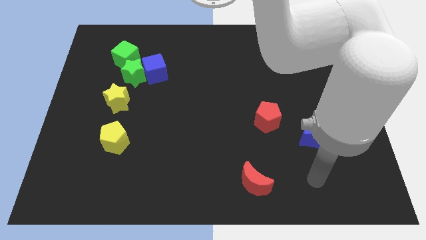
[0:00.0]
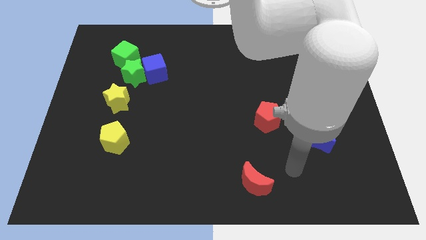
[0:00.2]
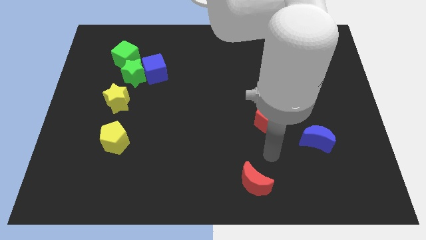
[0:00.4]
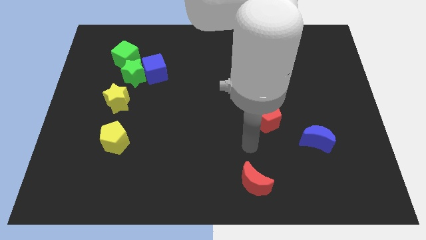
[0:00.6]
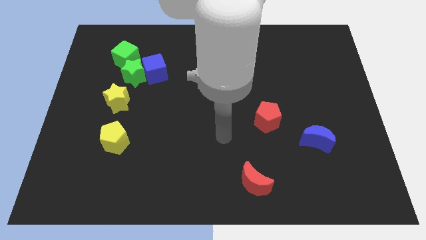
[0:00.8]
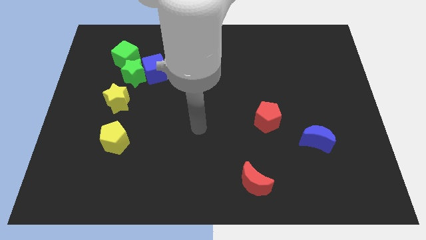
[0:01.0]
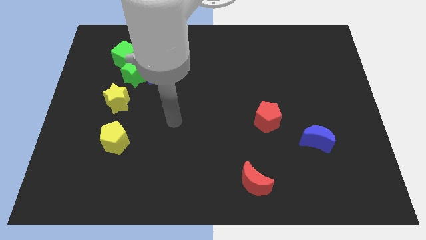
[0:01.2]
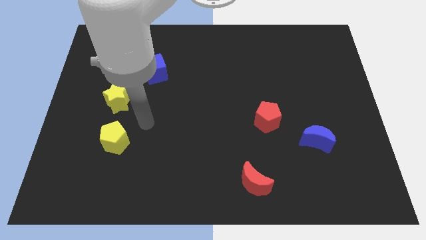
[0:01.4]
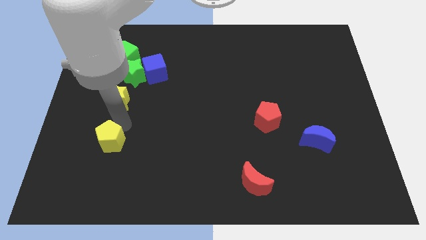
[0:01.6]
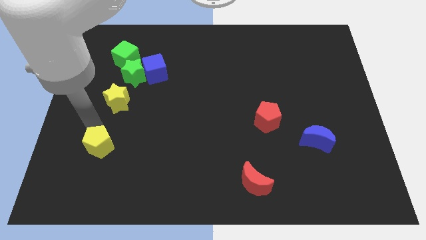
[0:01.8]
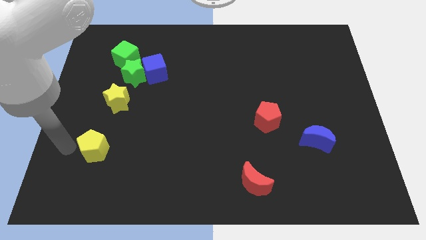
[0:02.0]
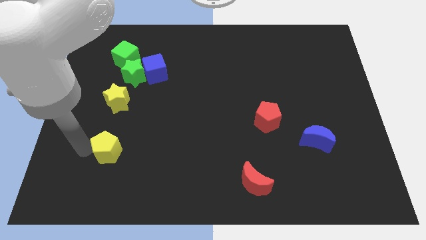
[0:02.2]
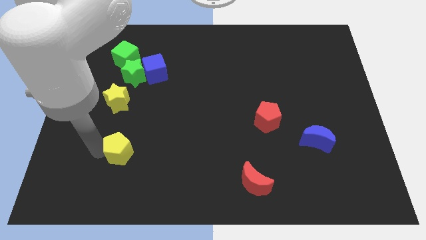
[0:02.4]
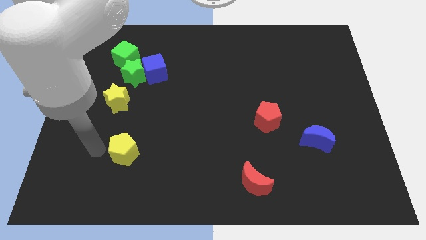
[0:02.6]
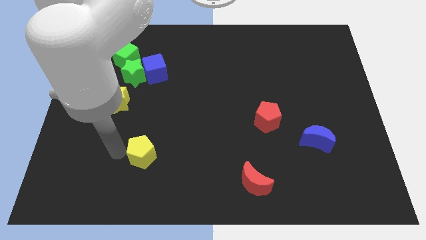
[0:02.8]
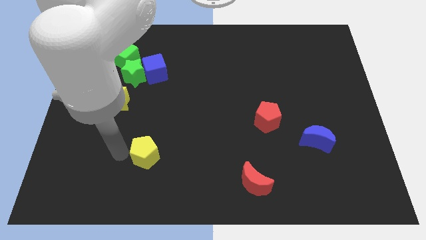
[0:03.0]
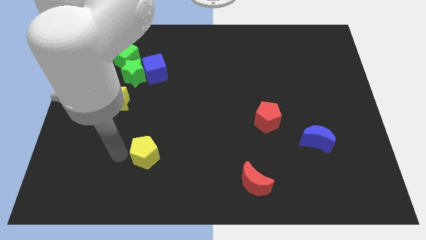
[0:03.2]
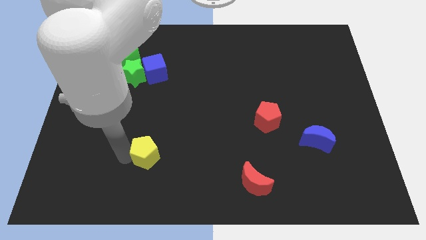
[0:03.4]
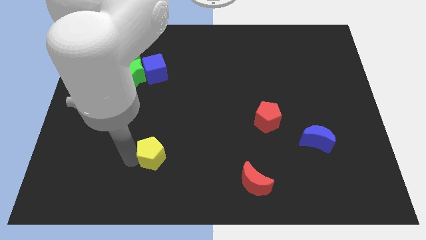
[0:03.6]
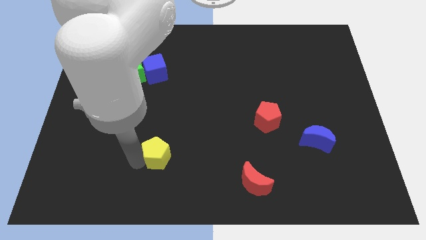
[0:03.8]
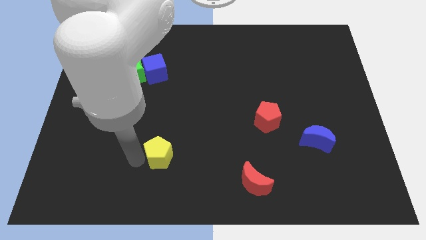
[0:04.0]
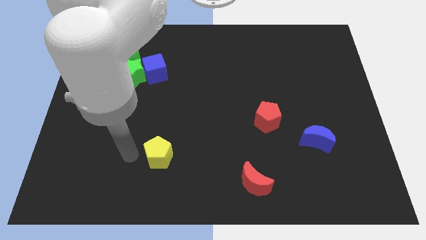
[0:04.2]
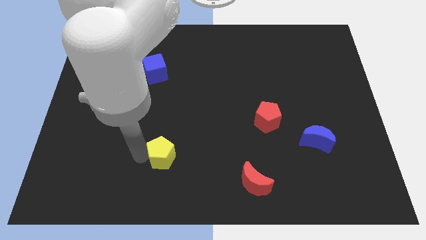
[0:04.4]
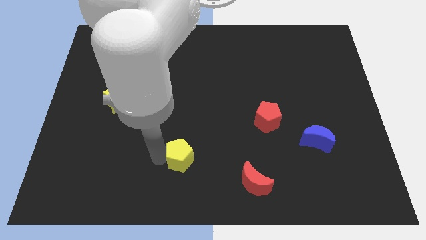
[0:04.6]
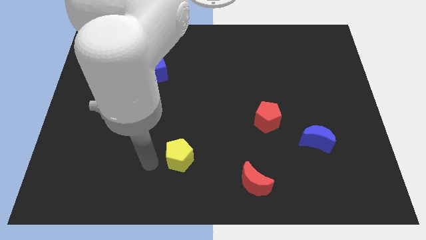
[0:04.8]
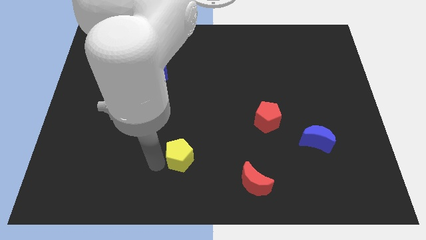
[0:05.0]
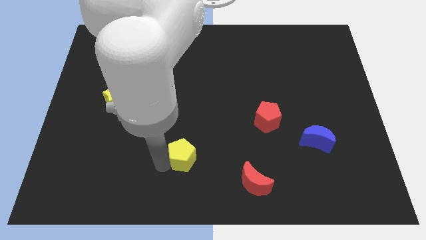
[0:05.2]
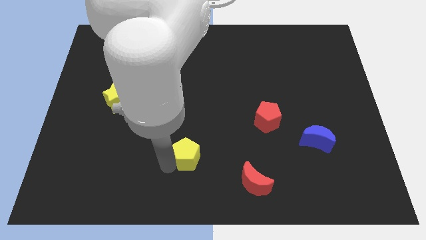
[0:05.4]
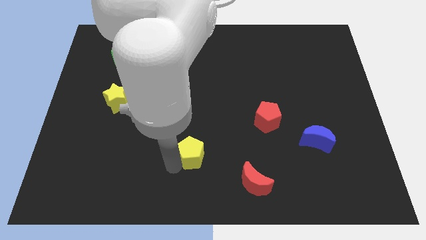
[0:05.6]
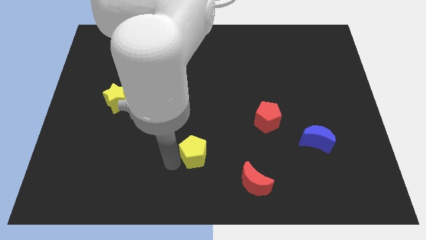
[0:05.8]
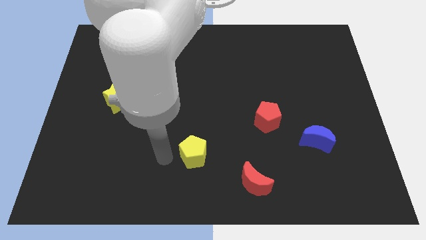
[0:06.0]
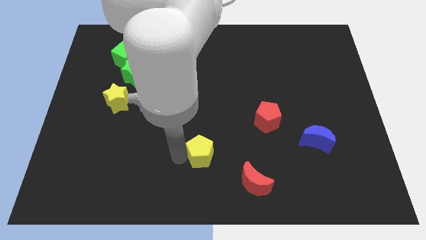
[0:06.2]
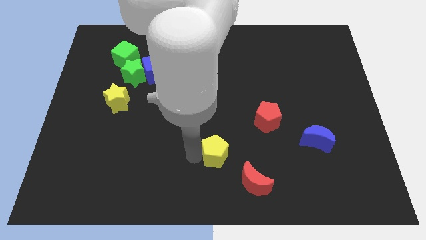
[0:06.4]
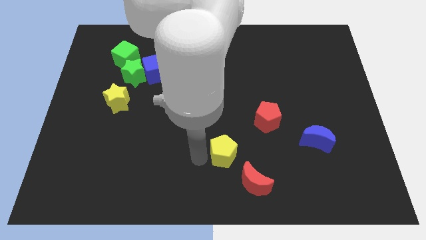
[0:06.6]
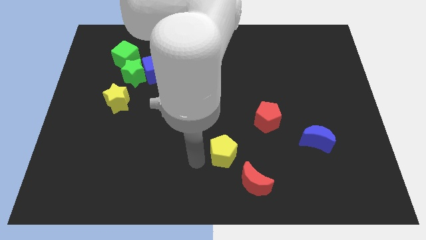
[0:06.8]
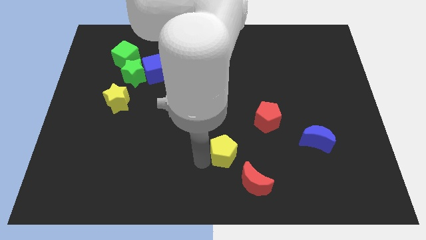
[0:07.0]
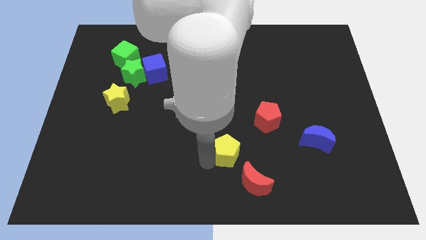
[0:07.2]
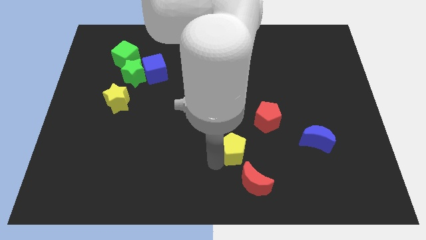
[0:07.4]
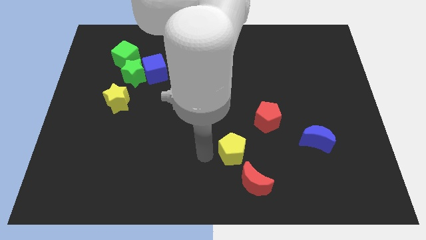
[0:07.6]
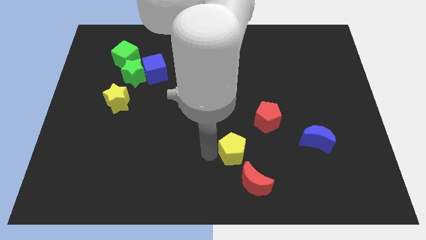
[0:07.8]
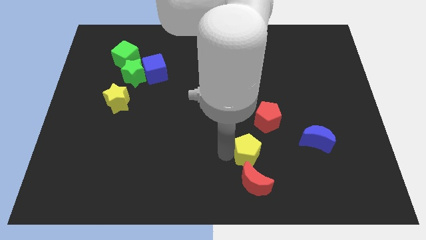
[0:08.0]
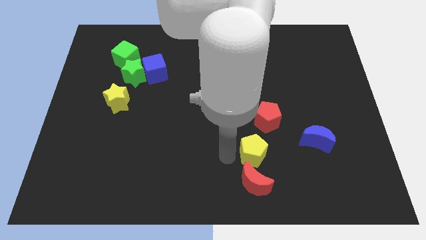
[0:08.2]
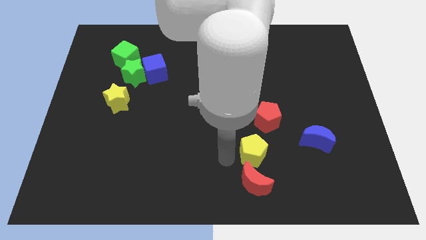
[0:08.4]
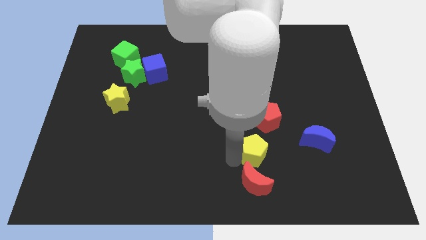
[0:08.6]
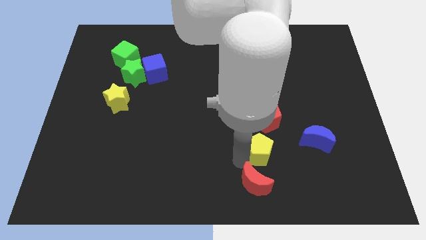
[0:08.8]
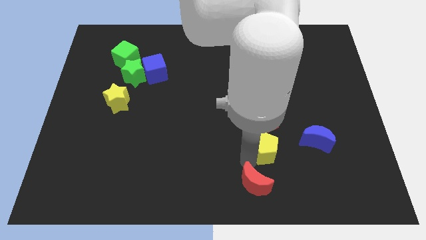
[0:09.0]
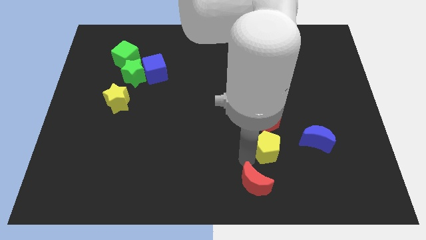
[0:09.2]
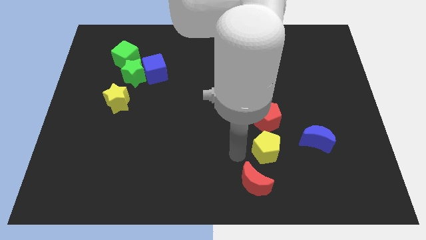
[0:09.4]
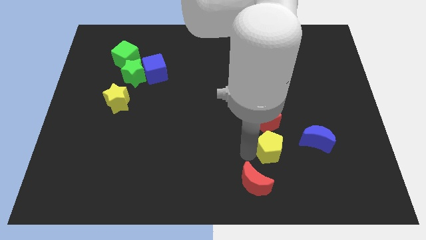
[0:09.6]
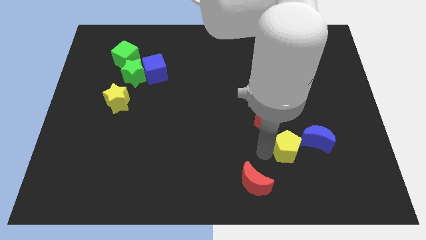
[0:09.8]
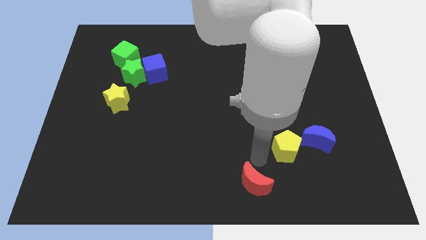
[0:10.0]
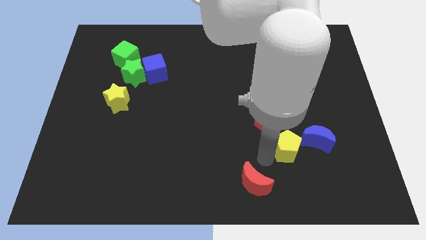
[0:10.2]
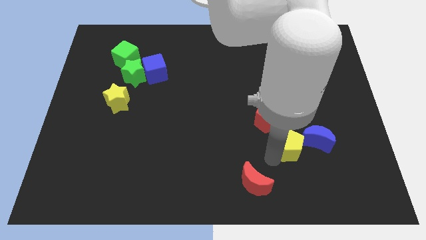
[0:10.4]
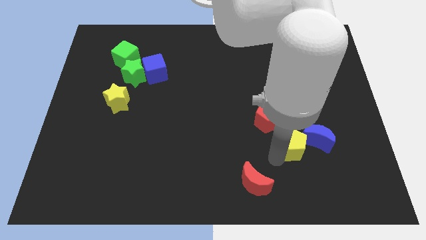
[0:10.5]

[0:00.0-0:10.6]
move the yellow pentagon close to the blue moon

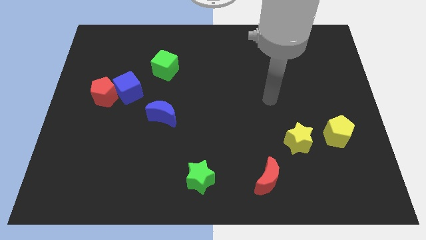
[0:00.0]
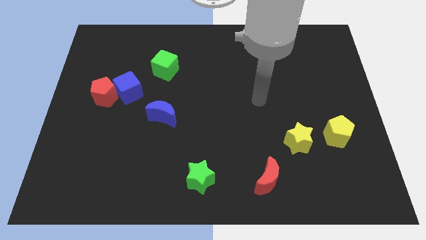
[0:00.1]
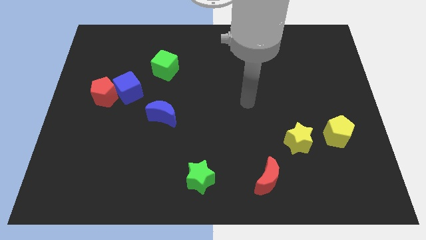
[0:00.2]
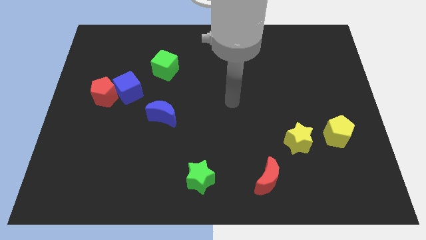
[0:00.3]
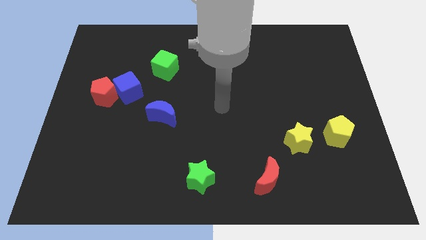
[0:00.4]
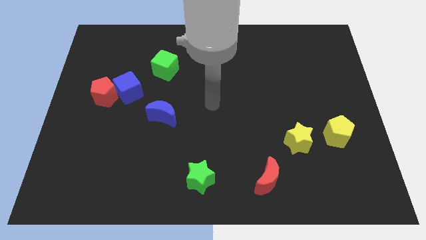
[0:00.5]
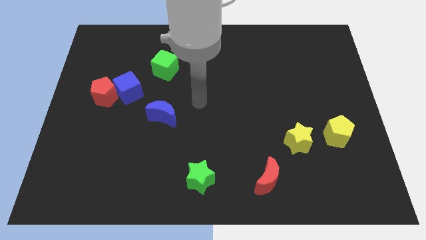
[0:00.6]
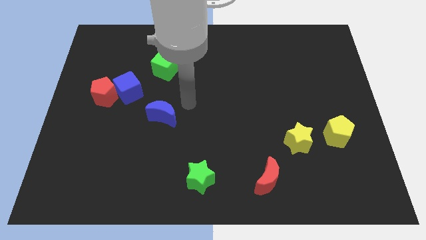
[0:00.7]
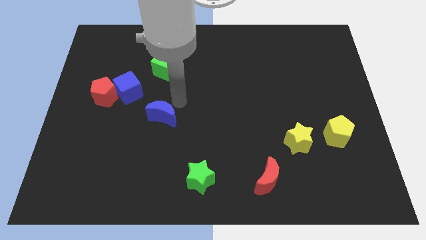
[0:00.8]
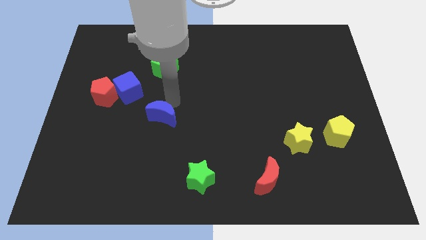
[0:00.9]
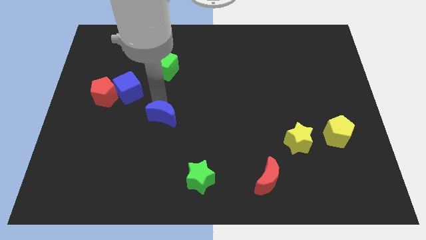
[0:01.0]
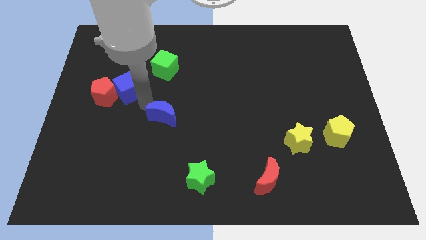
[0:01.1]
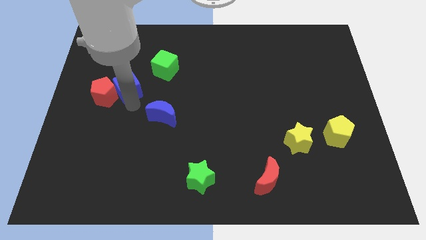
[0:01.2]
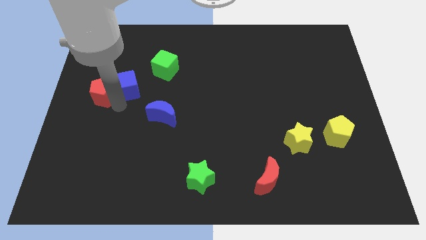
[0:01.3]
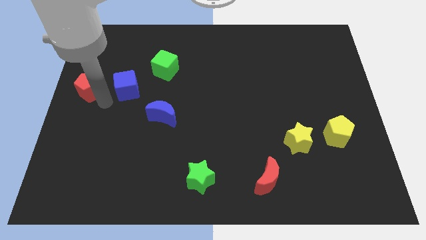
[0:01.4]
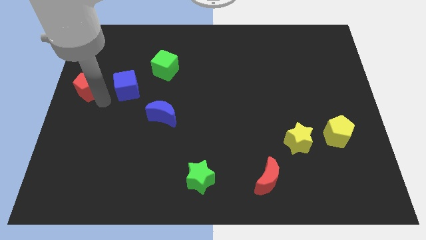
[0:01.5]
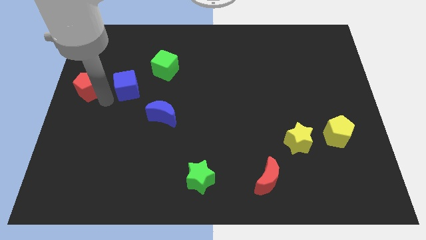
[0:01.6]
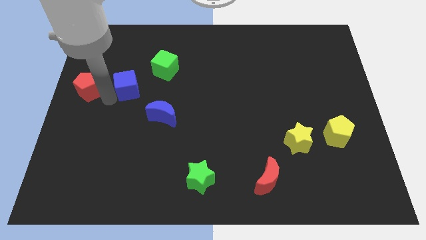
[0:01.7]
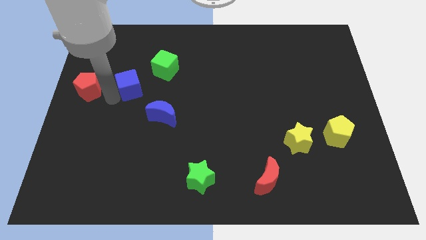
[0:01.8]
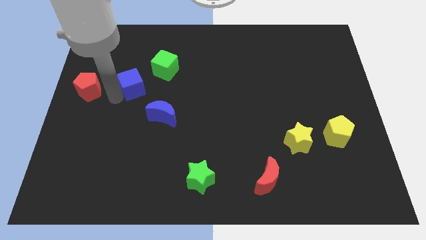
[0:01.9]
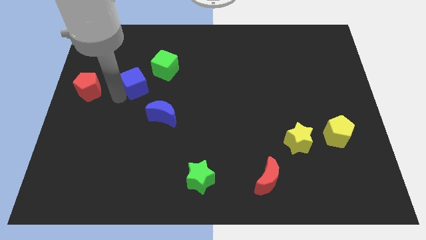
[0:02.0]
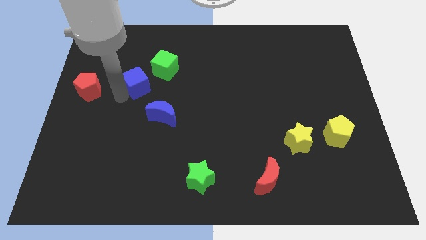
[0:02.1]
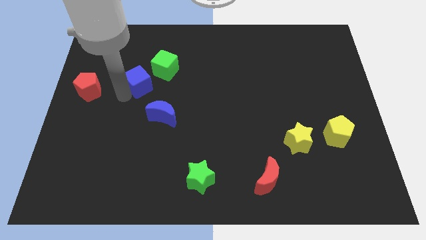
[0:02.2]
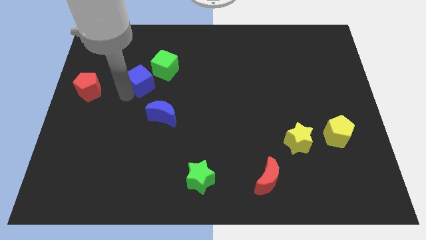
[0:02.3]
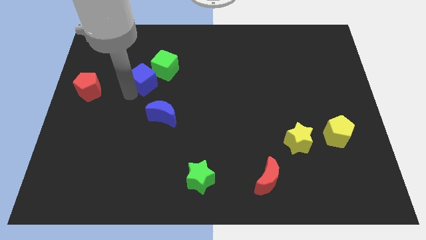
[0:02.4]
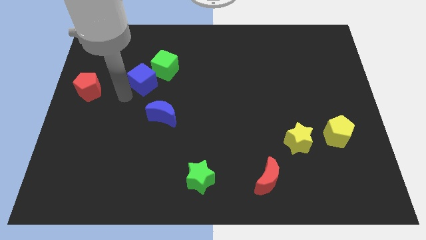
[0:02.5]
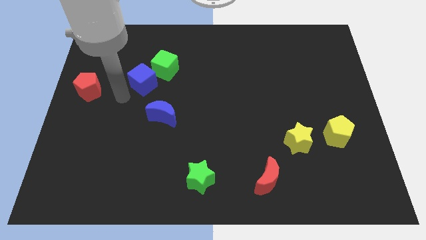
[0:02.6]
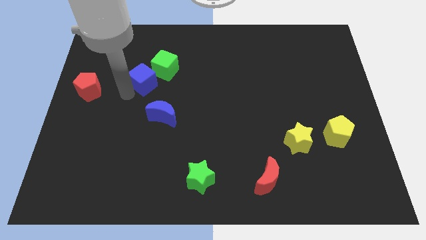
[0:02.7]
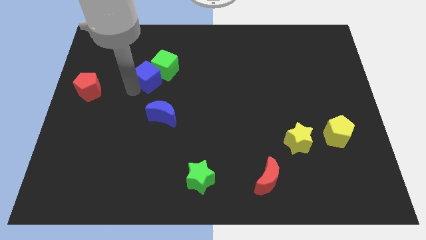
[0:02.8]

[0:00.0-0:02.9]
move the blue cube close to the green cube
